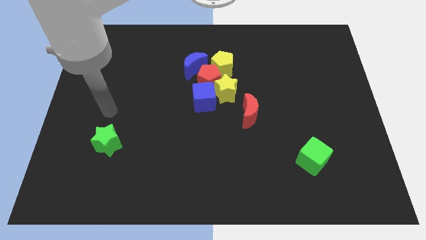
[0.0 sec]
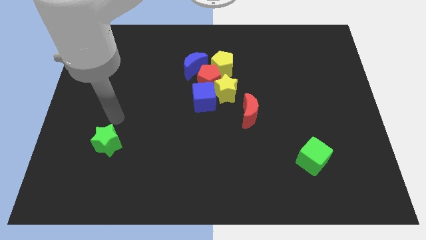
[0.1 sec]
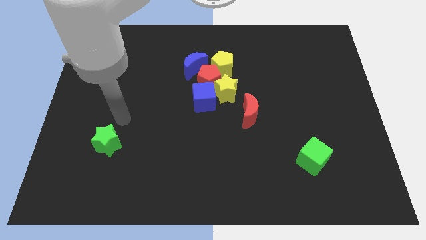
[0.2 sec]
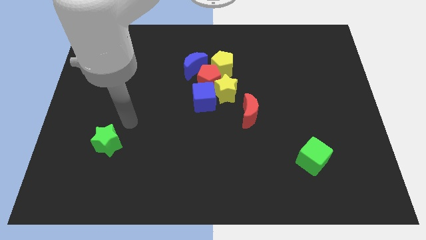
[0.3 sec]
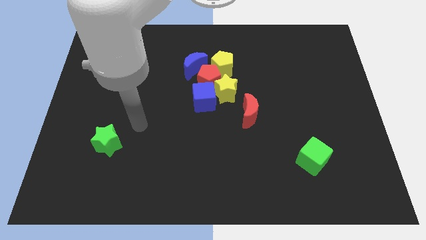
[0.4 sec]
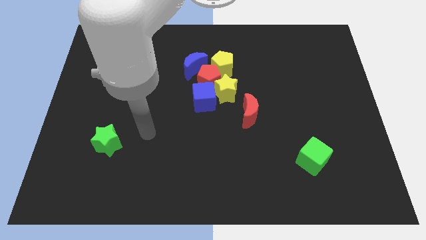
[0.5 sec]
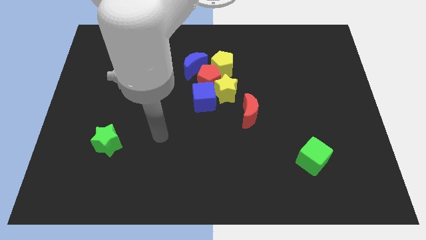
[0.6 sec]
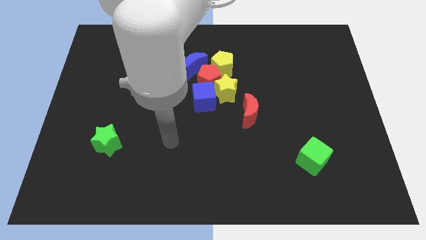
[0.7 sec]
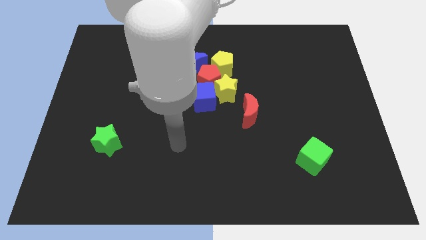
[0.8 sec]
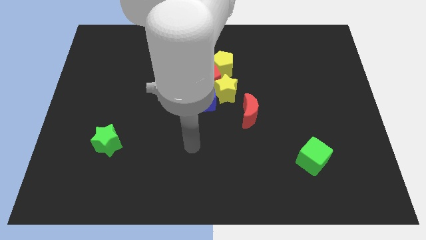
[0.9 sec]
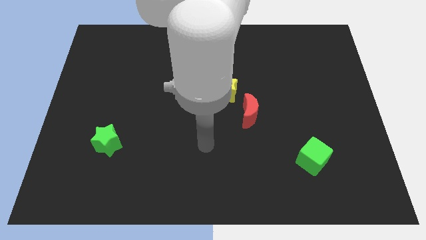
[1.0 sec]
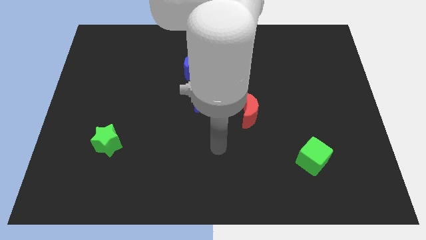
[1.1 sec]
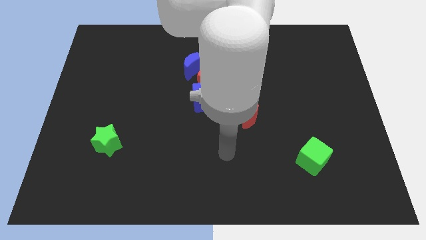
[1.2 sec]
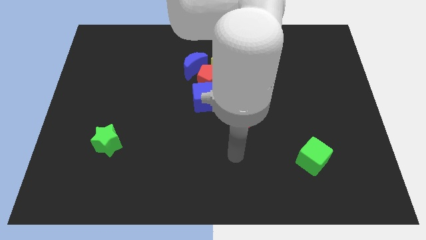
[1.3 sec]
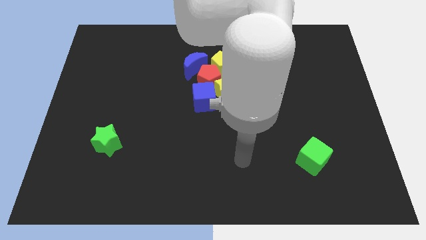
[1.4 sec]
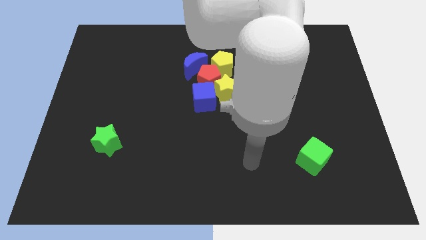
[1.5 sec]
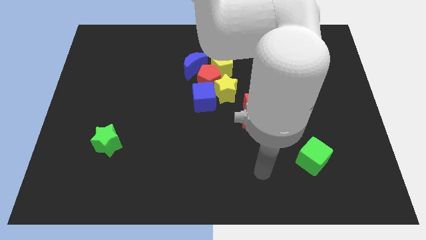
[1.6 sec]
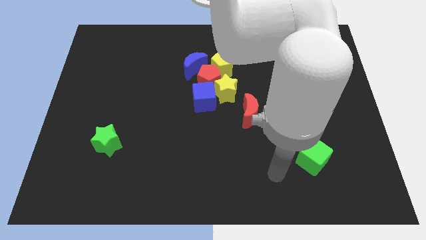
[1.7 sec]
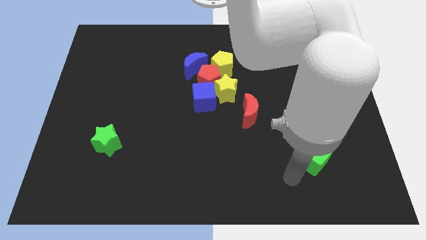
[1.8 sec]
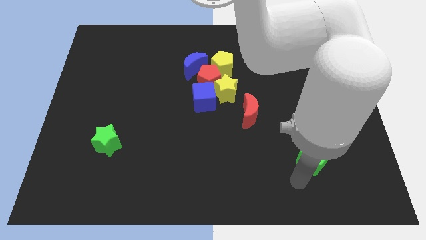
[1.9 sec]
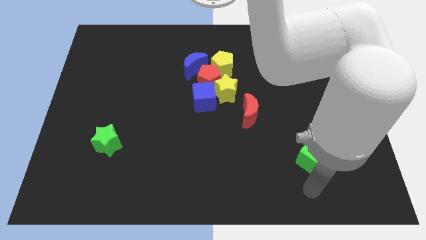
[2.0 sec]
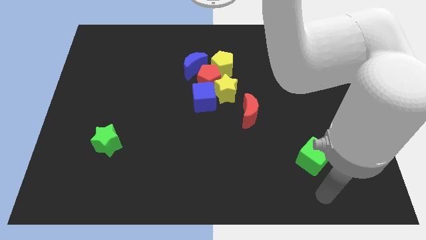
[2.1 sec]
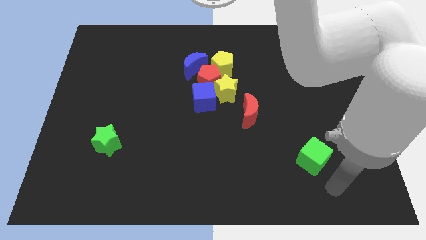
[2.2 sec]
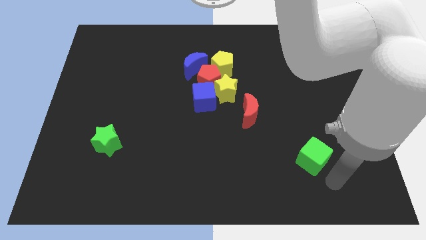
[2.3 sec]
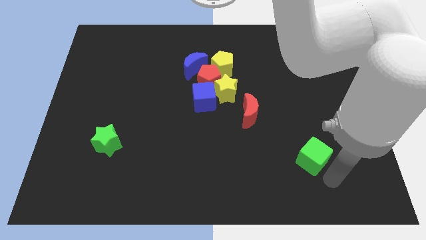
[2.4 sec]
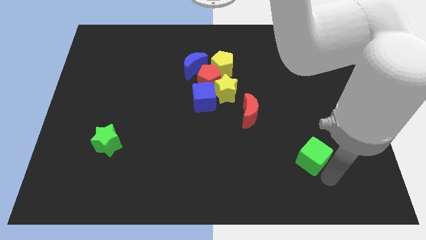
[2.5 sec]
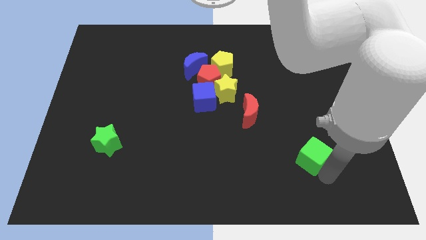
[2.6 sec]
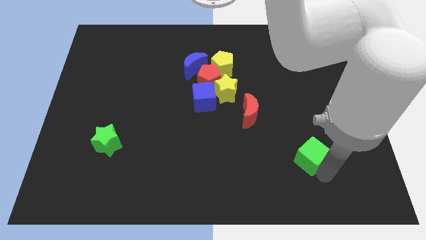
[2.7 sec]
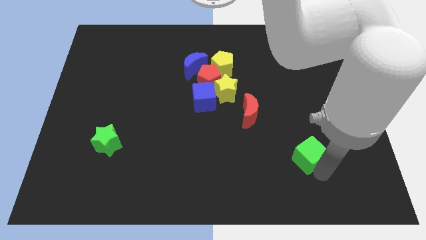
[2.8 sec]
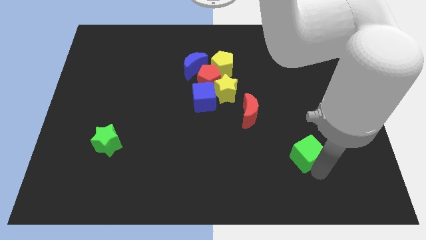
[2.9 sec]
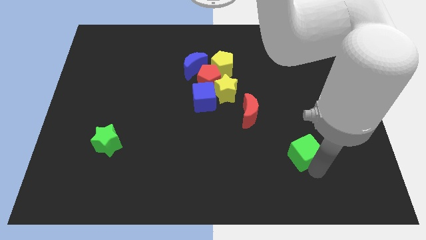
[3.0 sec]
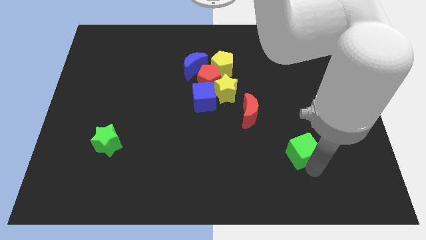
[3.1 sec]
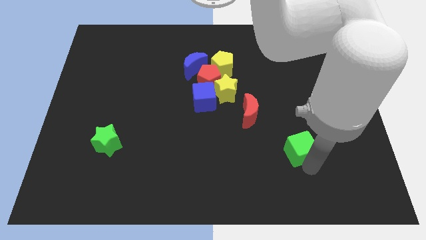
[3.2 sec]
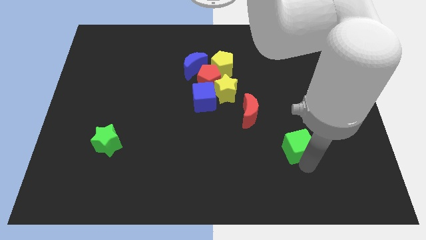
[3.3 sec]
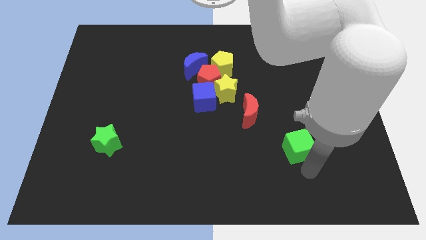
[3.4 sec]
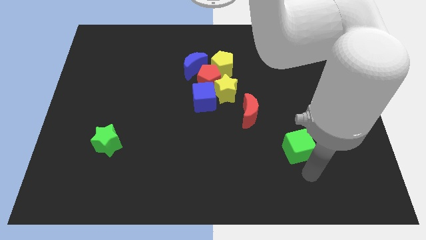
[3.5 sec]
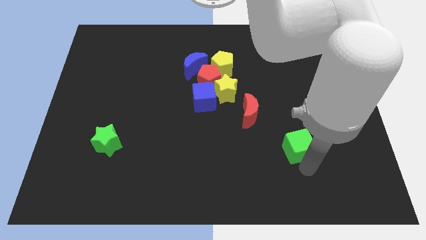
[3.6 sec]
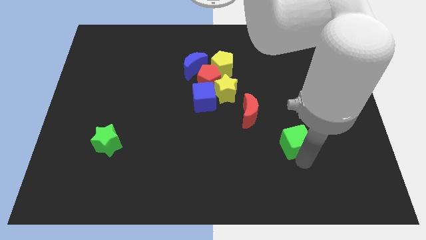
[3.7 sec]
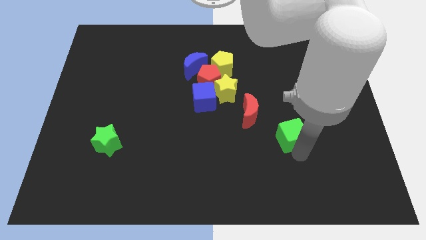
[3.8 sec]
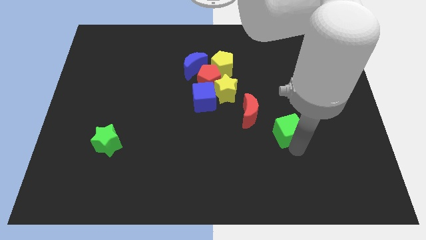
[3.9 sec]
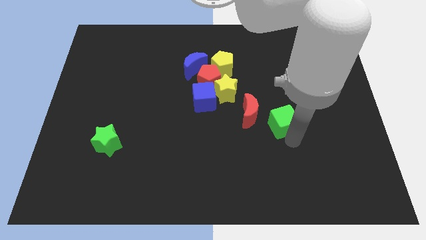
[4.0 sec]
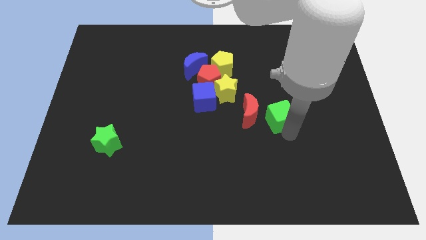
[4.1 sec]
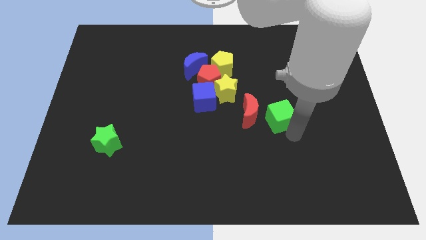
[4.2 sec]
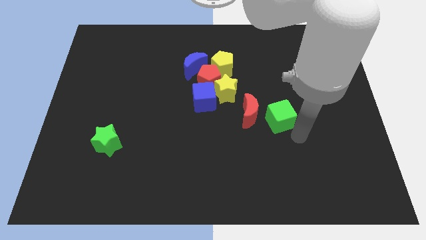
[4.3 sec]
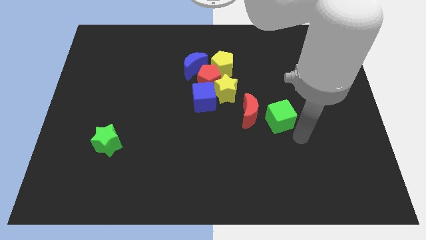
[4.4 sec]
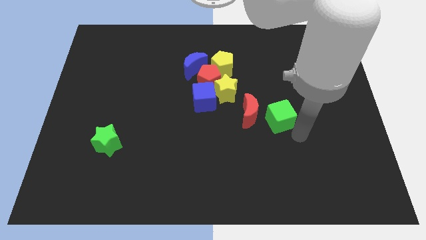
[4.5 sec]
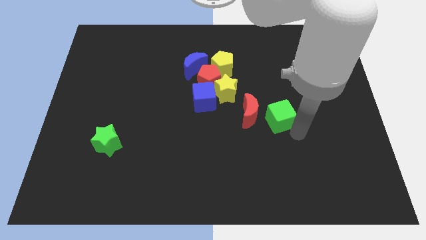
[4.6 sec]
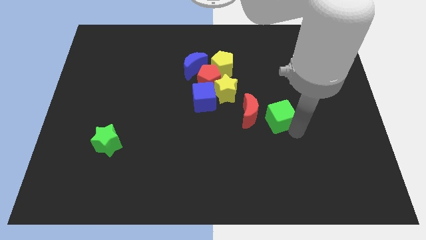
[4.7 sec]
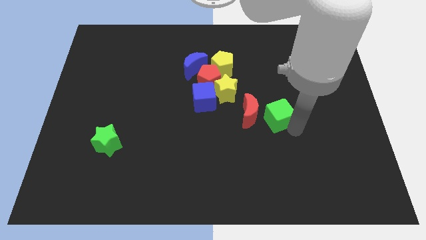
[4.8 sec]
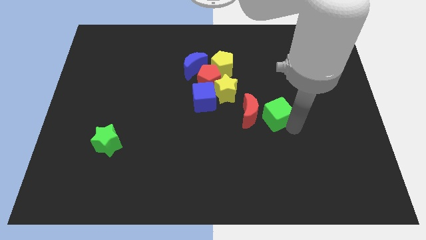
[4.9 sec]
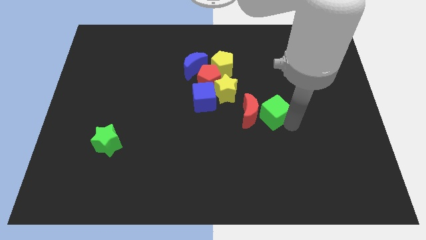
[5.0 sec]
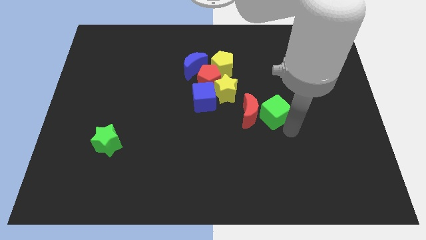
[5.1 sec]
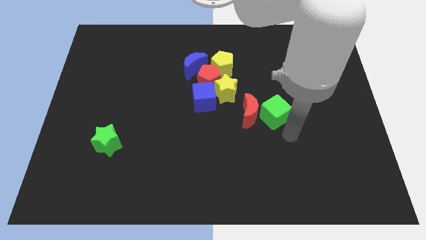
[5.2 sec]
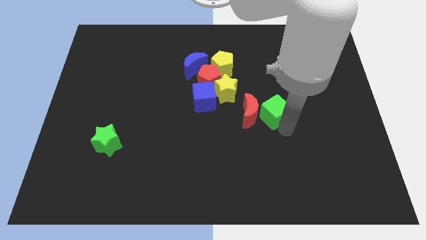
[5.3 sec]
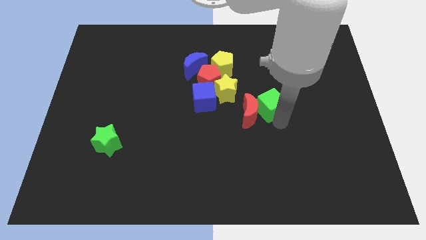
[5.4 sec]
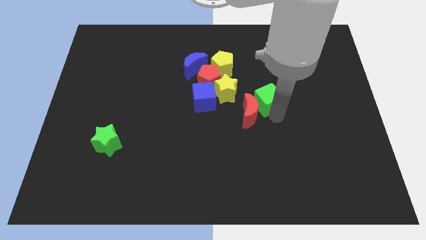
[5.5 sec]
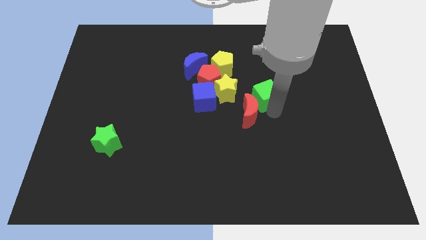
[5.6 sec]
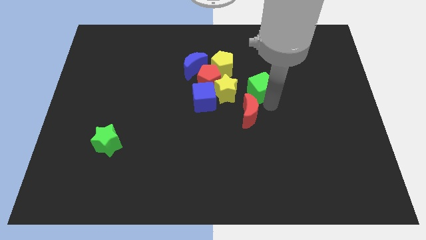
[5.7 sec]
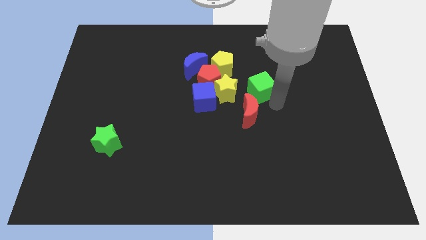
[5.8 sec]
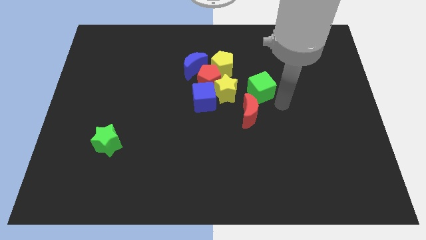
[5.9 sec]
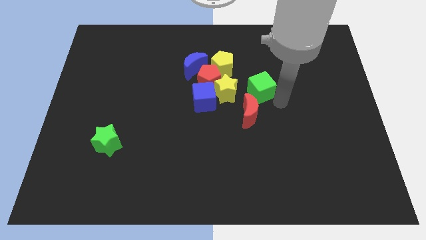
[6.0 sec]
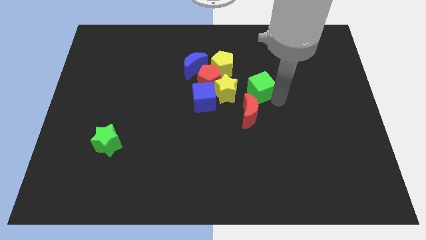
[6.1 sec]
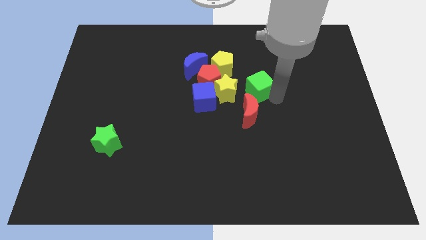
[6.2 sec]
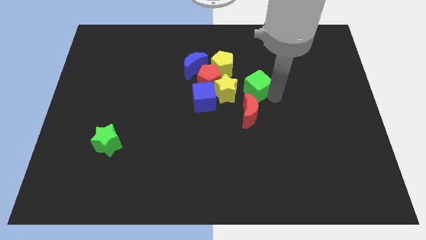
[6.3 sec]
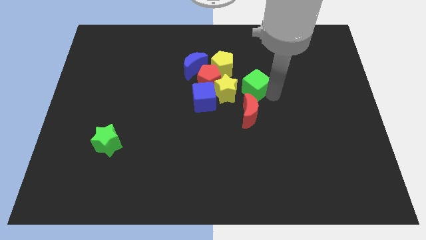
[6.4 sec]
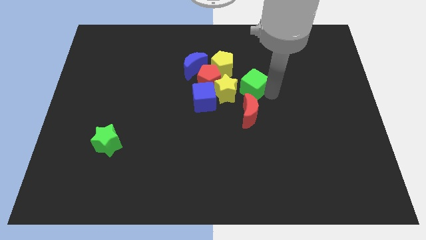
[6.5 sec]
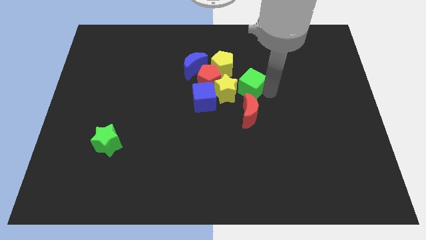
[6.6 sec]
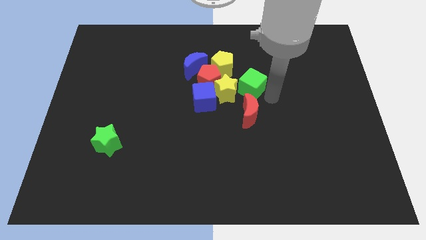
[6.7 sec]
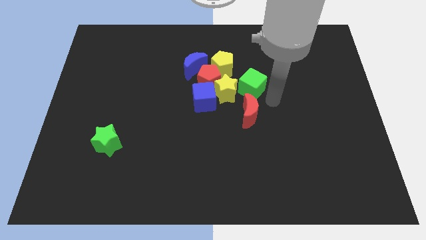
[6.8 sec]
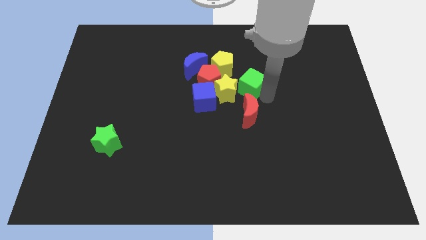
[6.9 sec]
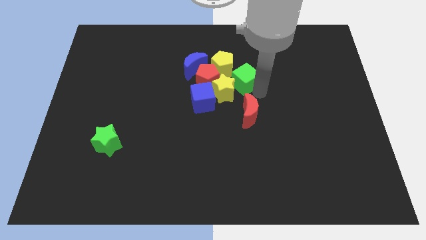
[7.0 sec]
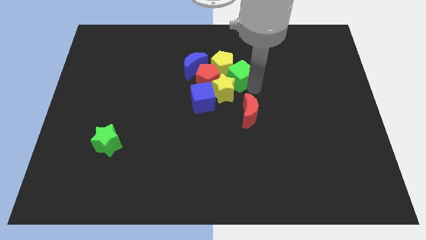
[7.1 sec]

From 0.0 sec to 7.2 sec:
move the green cube towards the yellow pentagon

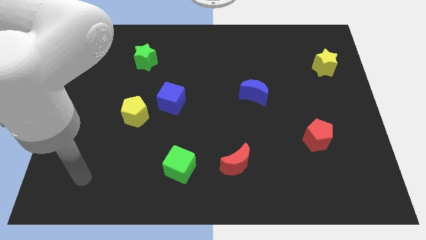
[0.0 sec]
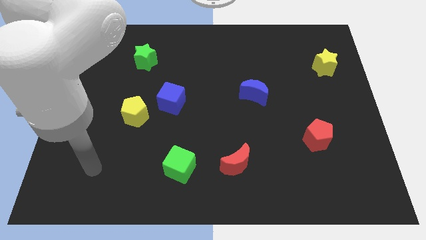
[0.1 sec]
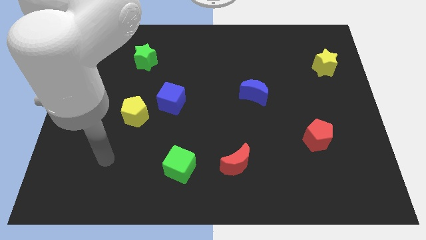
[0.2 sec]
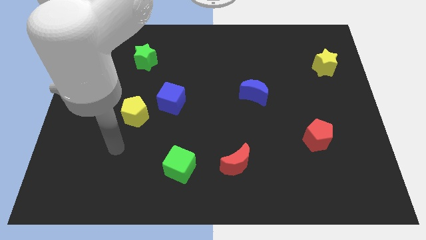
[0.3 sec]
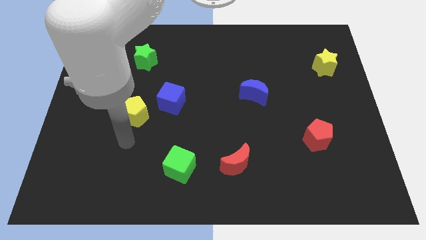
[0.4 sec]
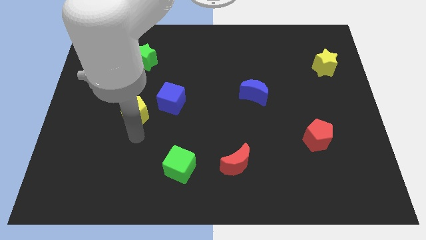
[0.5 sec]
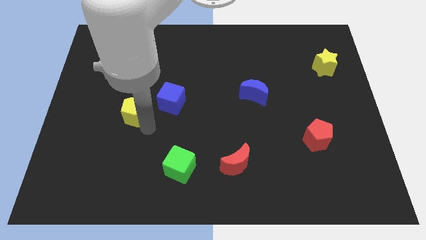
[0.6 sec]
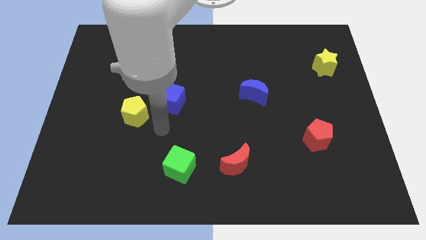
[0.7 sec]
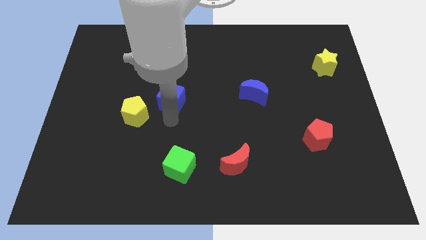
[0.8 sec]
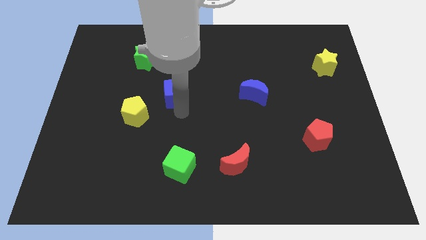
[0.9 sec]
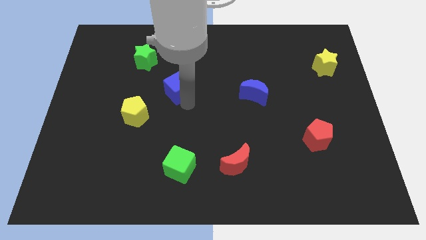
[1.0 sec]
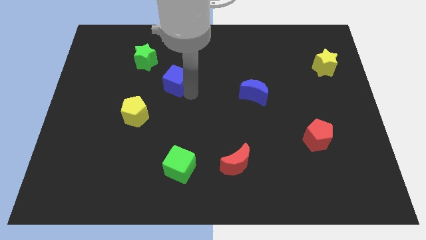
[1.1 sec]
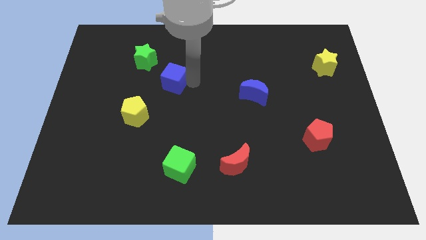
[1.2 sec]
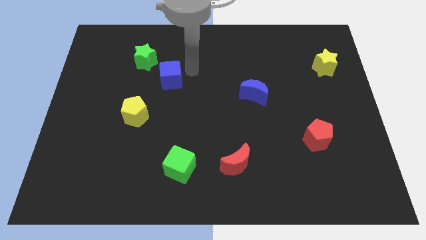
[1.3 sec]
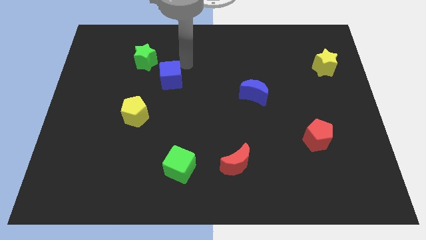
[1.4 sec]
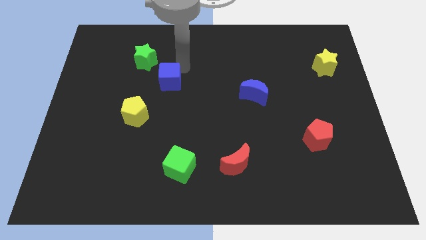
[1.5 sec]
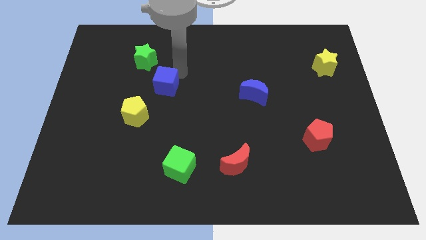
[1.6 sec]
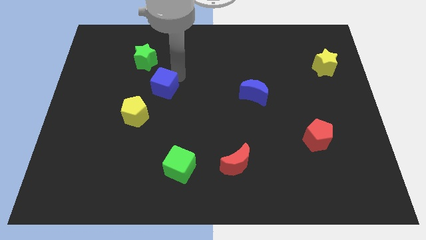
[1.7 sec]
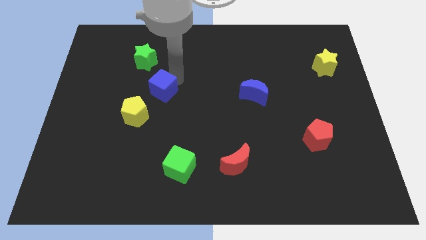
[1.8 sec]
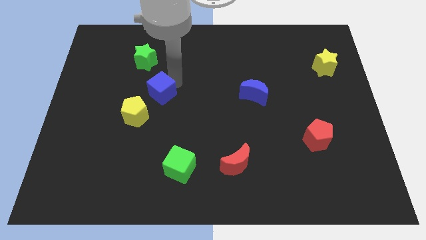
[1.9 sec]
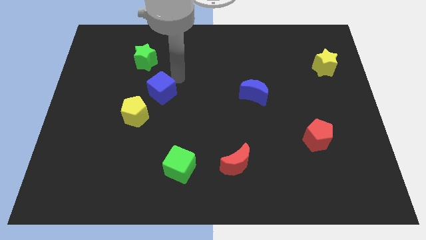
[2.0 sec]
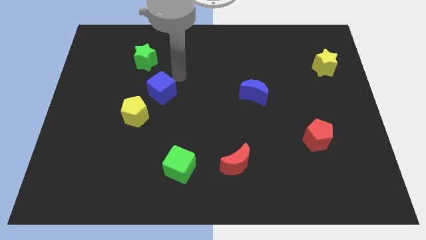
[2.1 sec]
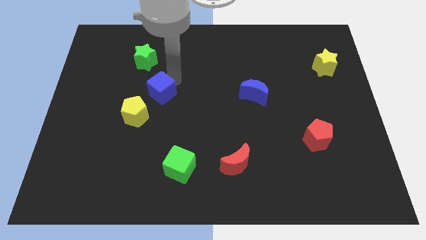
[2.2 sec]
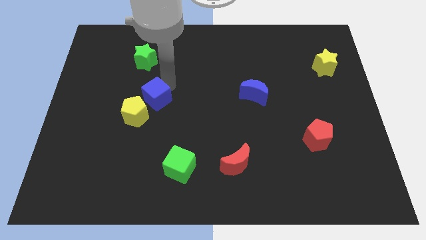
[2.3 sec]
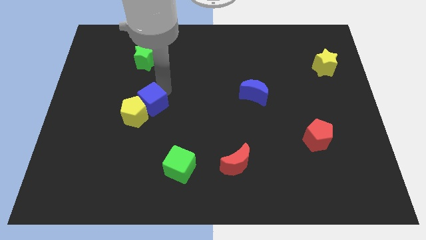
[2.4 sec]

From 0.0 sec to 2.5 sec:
slide the blue cube next to the yellow pentagon
